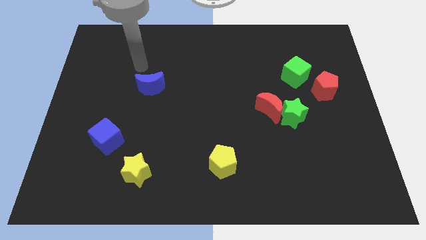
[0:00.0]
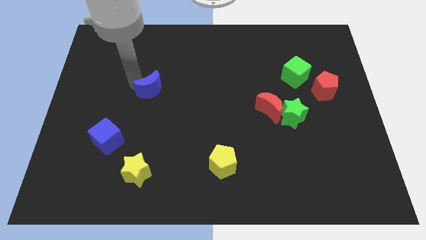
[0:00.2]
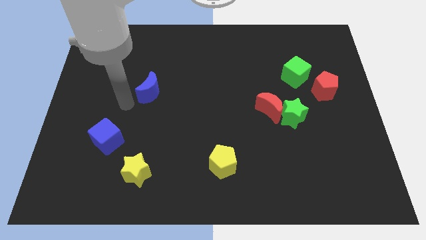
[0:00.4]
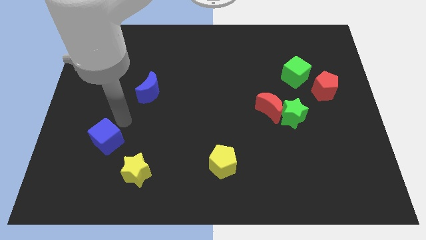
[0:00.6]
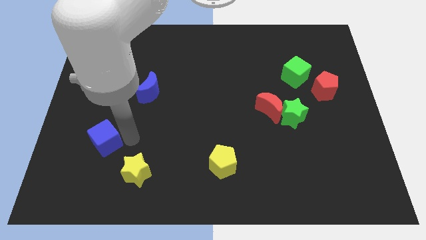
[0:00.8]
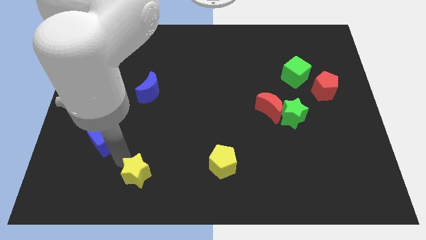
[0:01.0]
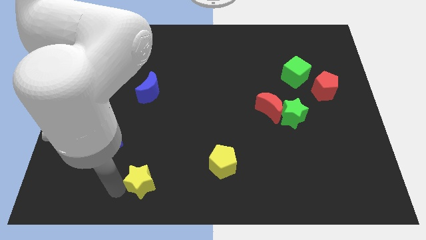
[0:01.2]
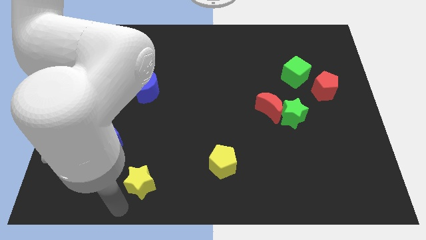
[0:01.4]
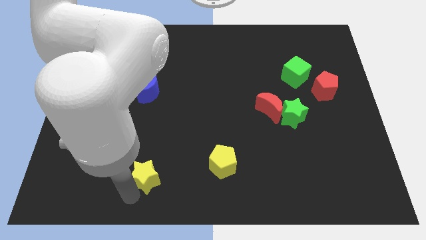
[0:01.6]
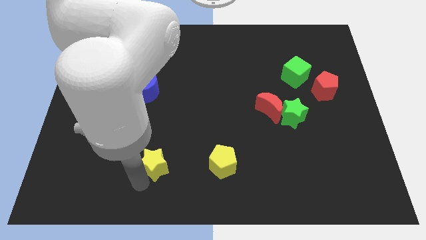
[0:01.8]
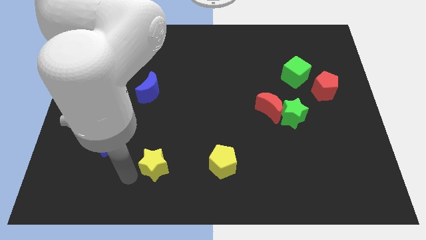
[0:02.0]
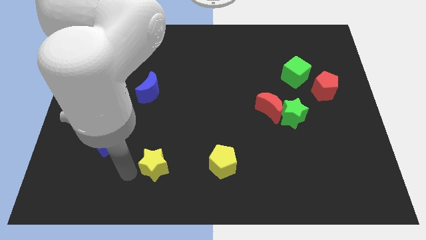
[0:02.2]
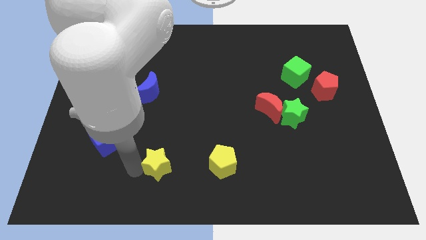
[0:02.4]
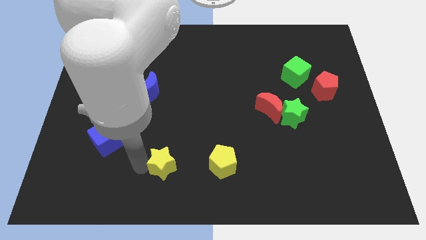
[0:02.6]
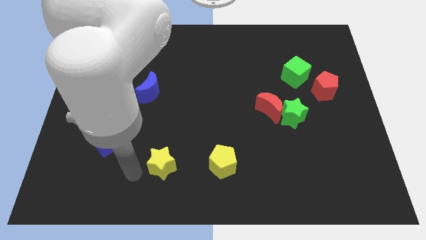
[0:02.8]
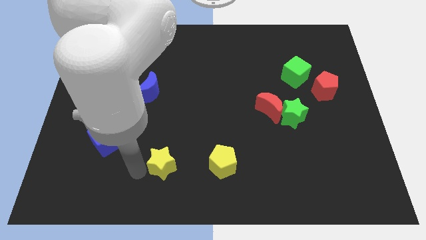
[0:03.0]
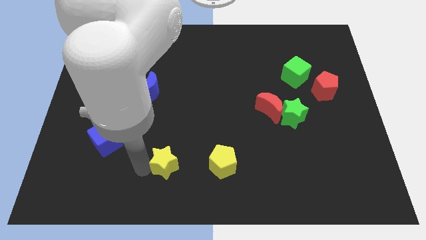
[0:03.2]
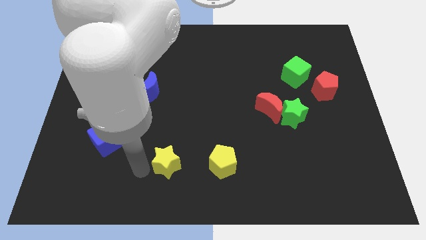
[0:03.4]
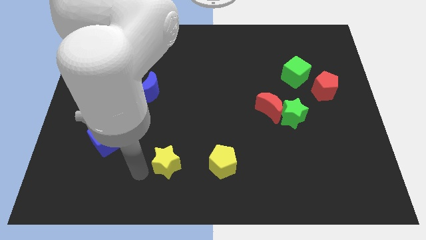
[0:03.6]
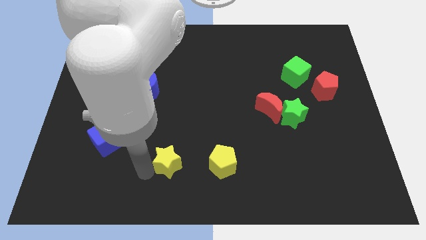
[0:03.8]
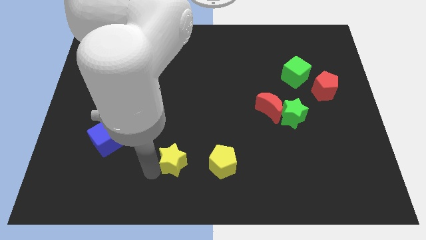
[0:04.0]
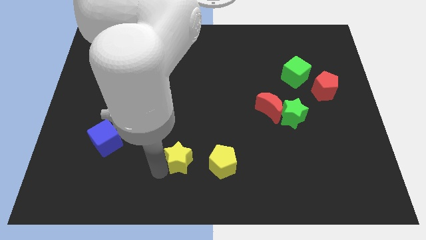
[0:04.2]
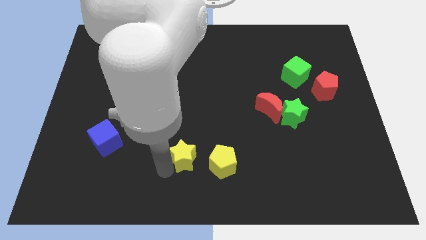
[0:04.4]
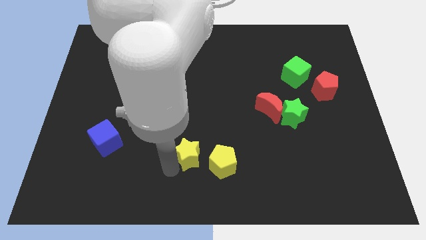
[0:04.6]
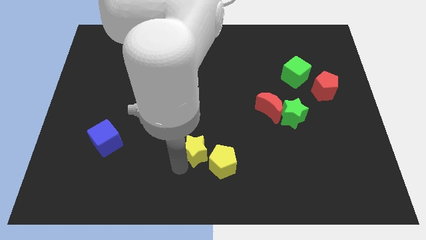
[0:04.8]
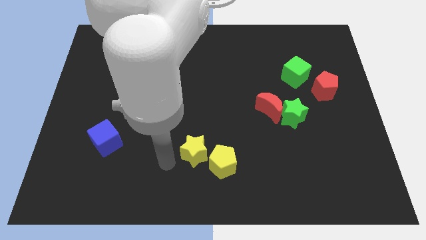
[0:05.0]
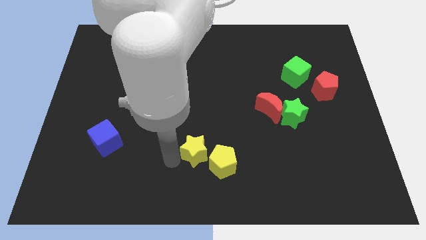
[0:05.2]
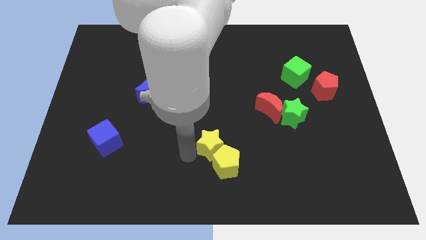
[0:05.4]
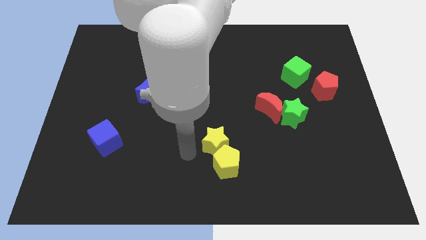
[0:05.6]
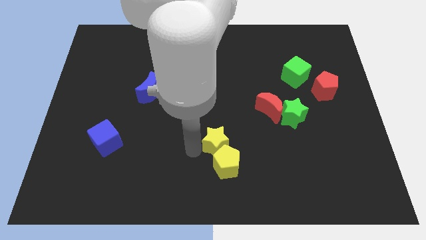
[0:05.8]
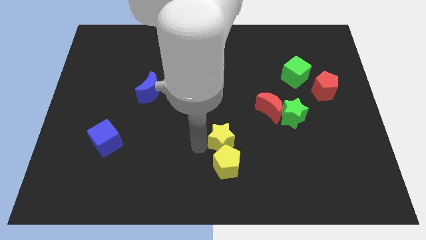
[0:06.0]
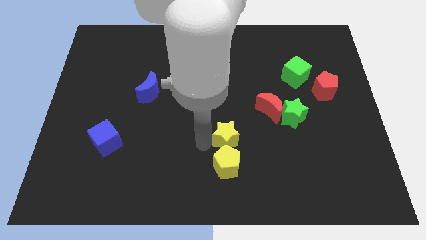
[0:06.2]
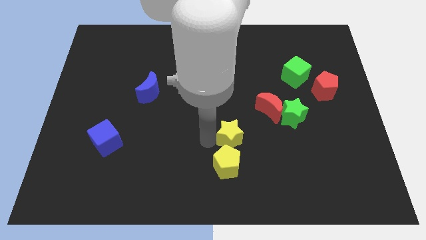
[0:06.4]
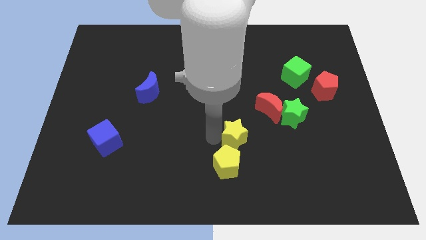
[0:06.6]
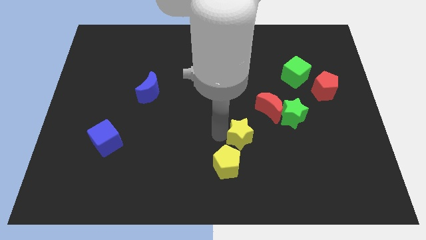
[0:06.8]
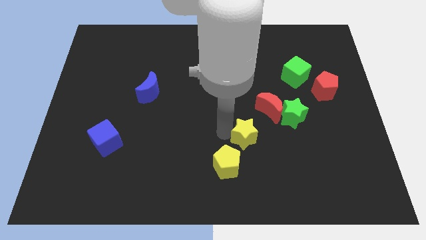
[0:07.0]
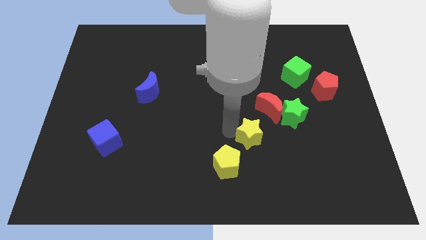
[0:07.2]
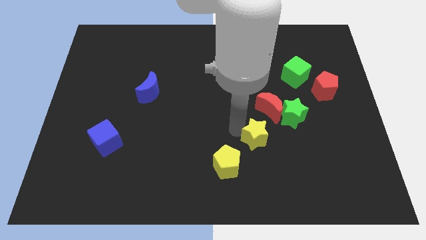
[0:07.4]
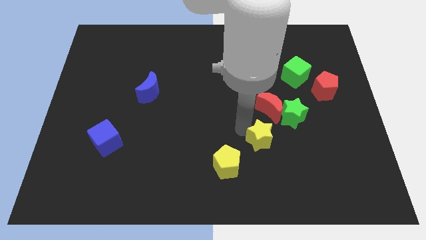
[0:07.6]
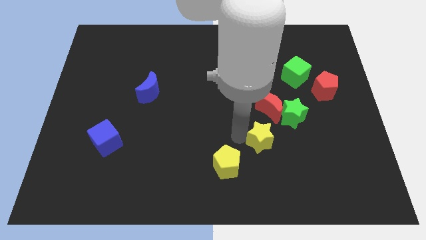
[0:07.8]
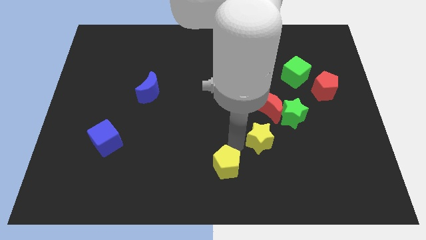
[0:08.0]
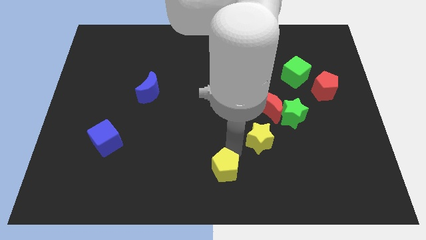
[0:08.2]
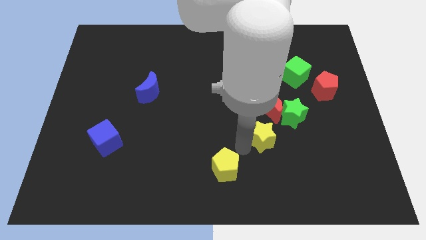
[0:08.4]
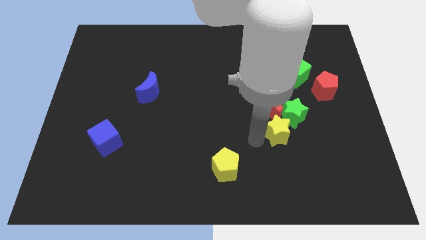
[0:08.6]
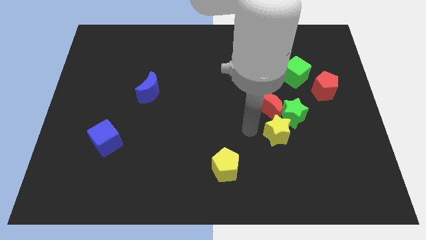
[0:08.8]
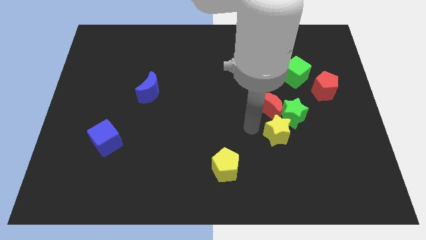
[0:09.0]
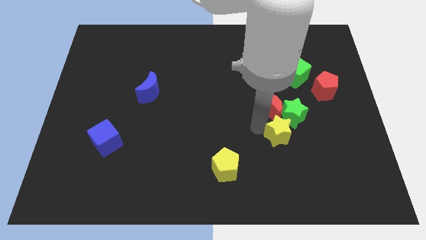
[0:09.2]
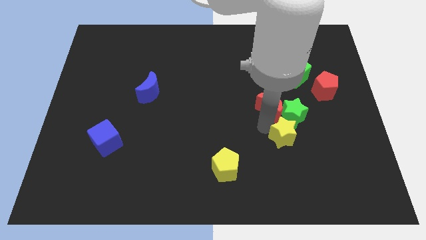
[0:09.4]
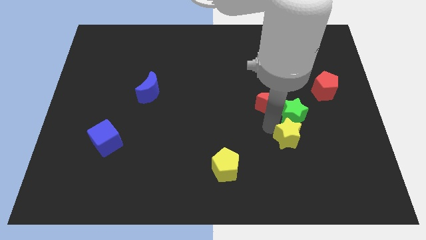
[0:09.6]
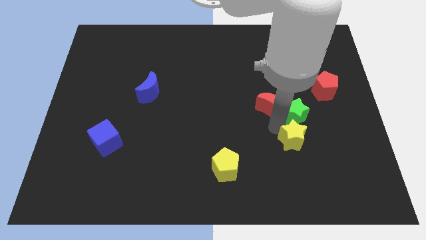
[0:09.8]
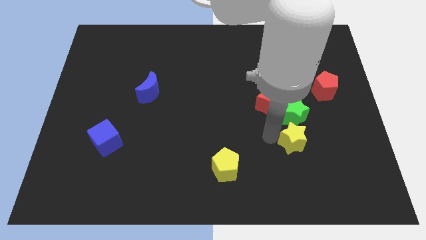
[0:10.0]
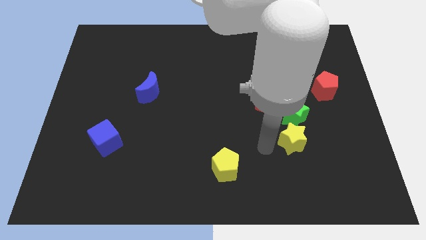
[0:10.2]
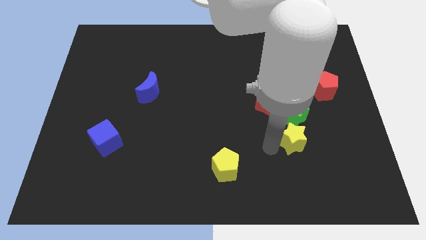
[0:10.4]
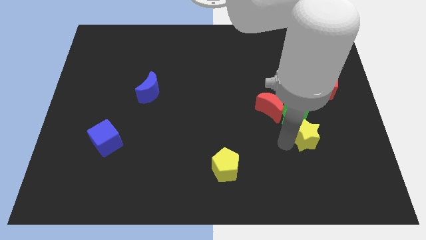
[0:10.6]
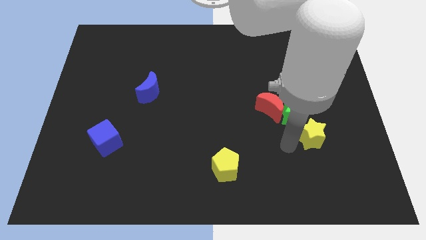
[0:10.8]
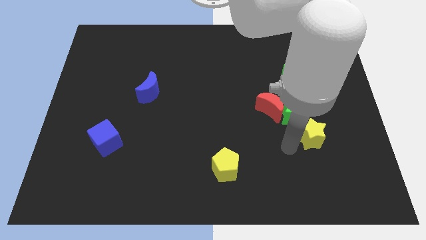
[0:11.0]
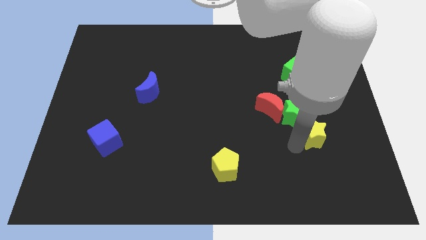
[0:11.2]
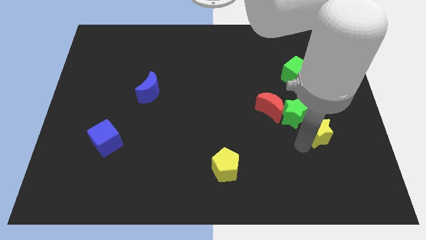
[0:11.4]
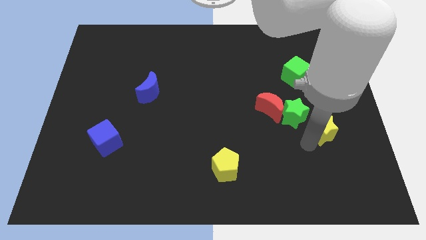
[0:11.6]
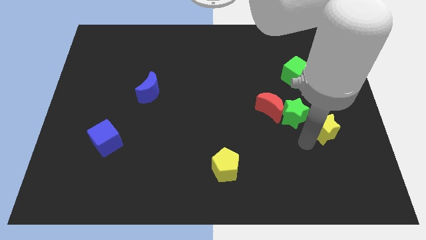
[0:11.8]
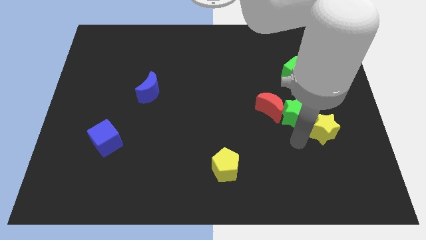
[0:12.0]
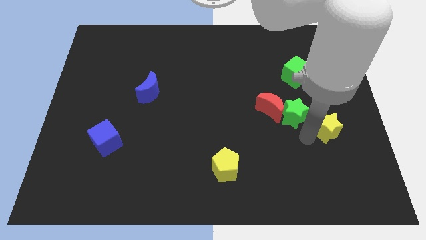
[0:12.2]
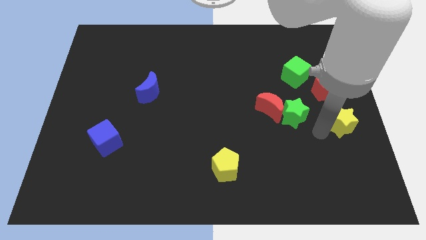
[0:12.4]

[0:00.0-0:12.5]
put the yellow star to the right side
